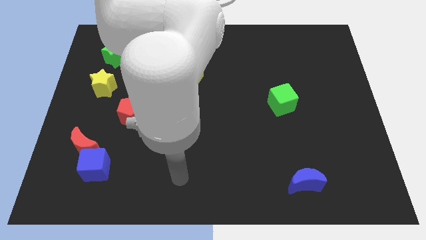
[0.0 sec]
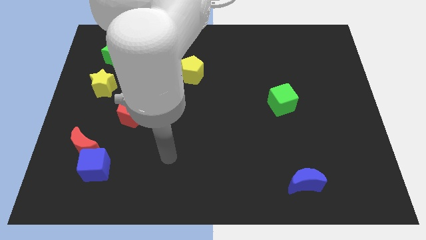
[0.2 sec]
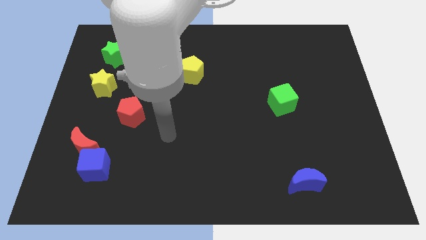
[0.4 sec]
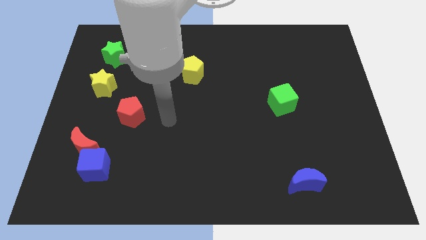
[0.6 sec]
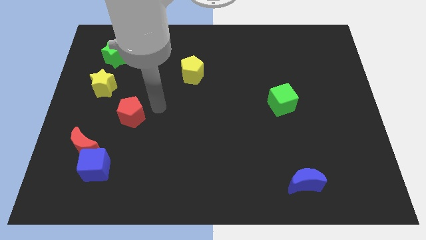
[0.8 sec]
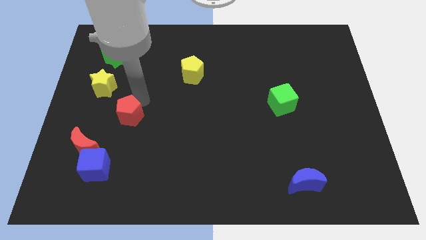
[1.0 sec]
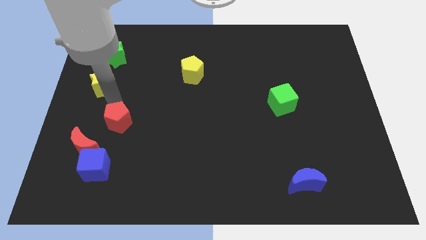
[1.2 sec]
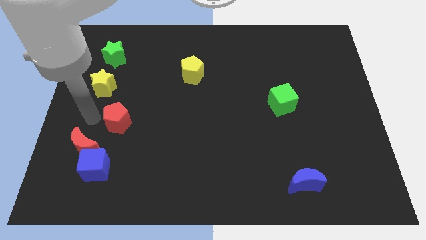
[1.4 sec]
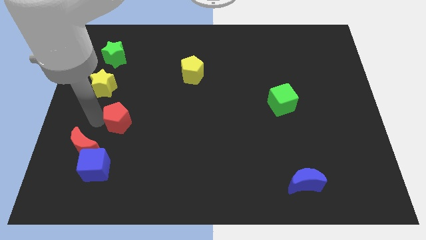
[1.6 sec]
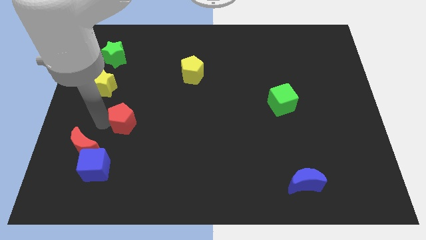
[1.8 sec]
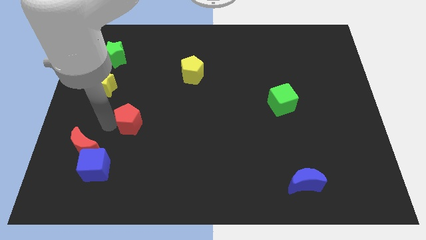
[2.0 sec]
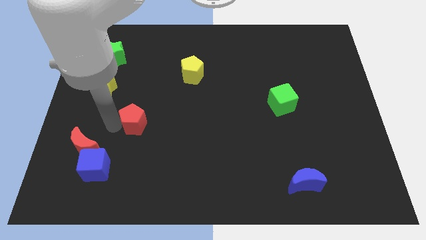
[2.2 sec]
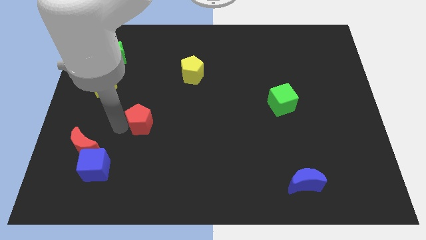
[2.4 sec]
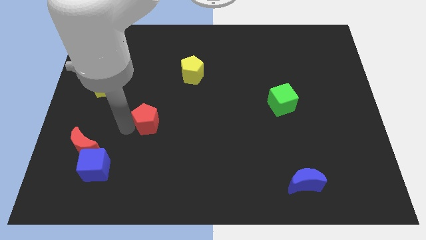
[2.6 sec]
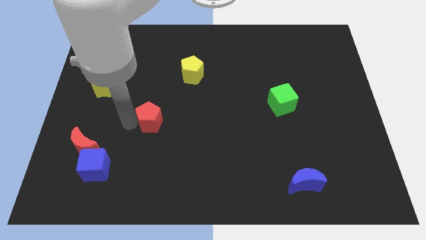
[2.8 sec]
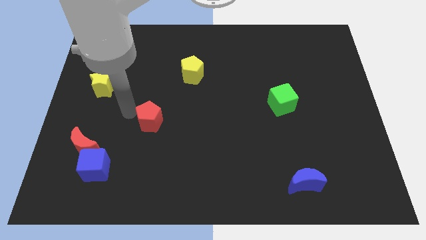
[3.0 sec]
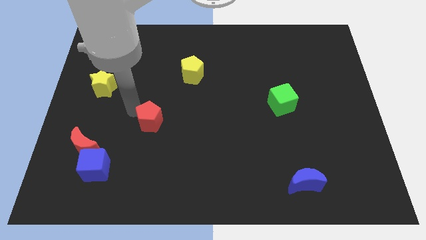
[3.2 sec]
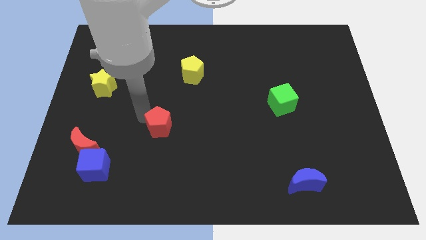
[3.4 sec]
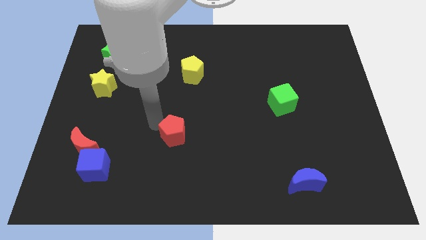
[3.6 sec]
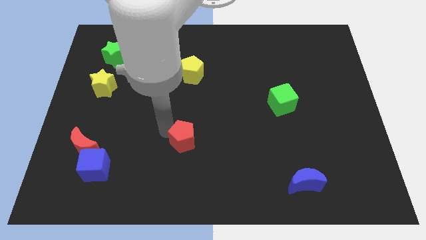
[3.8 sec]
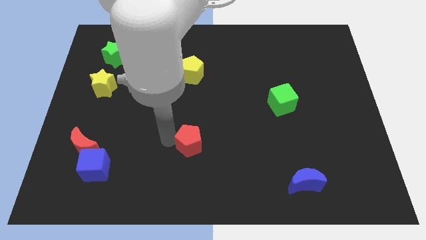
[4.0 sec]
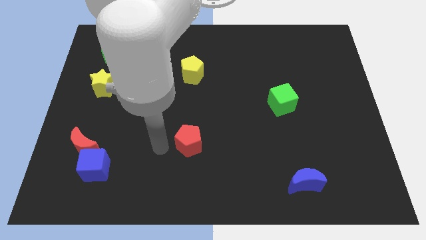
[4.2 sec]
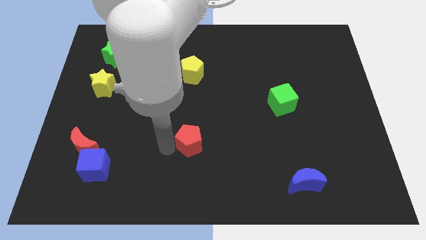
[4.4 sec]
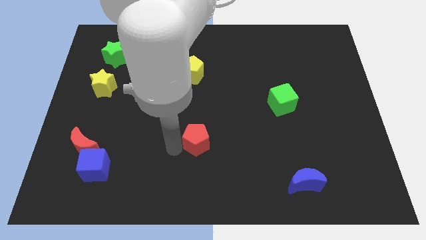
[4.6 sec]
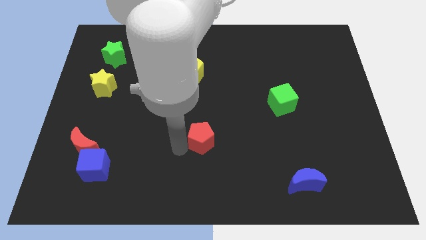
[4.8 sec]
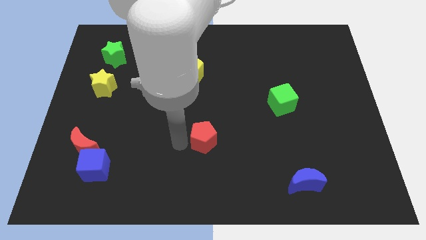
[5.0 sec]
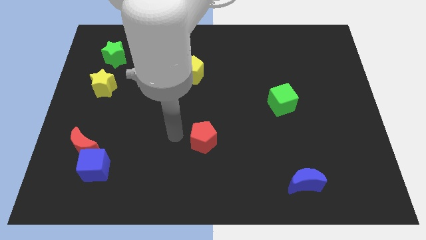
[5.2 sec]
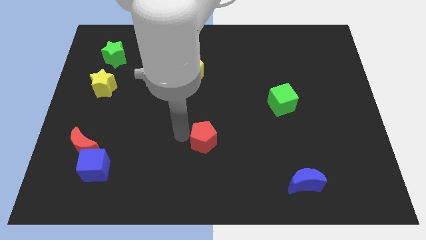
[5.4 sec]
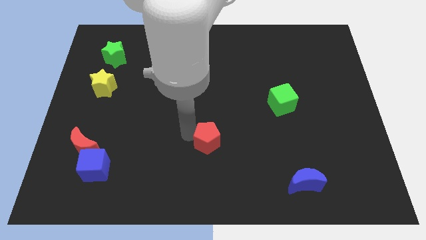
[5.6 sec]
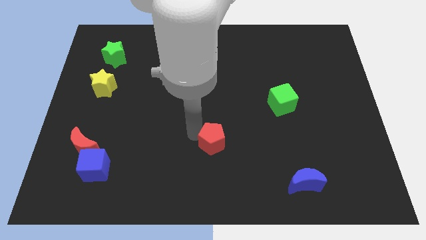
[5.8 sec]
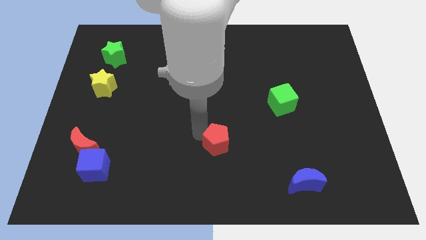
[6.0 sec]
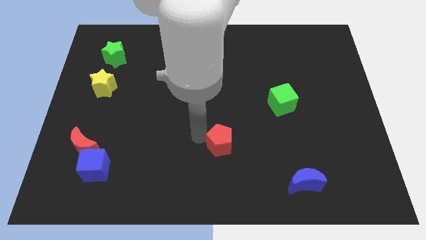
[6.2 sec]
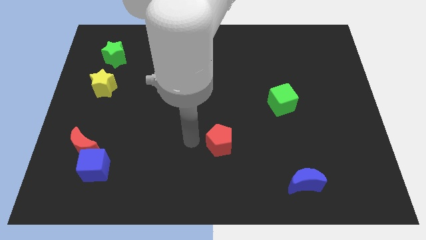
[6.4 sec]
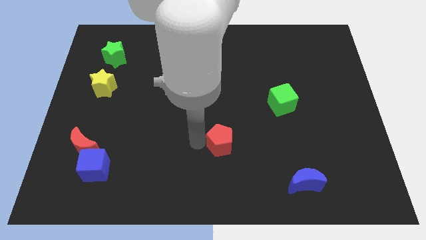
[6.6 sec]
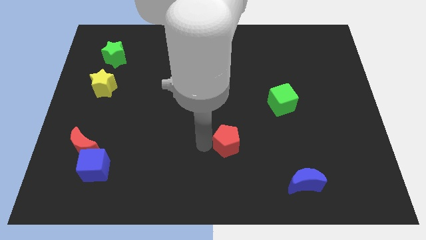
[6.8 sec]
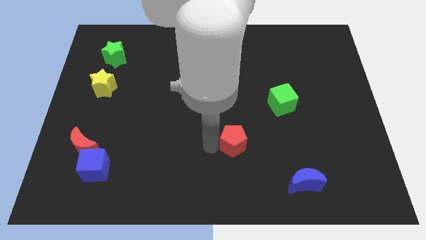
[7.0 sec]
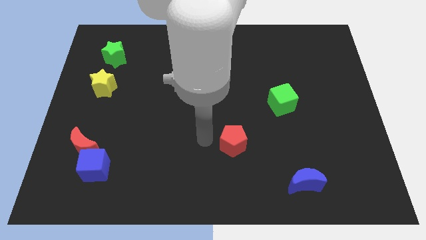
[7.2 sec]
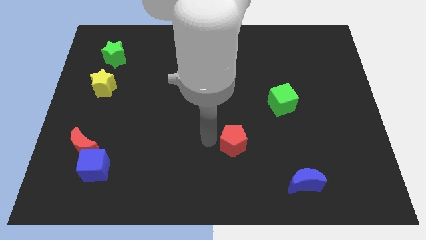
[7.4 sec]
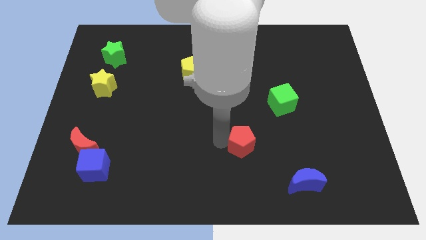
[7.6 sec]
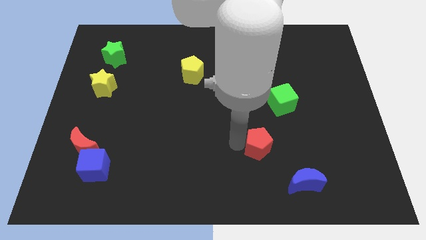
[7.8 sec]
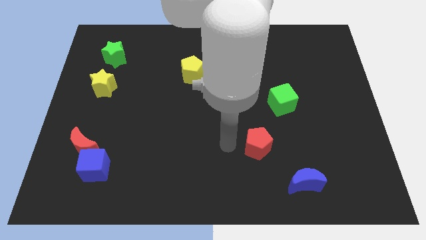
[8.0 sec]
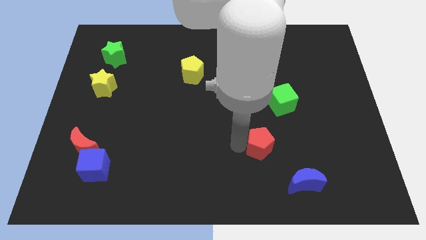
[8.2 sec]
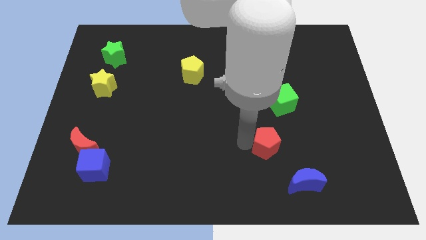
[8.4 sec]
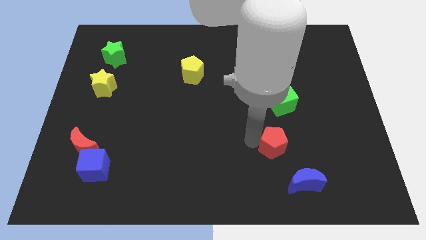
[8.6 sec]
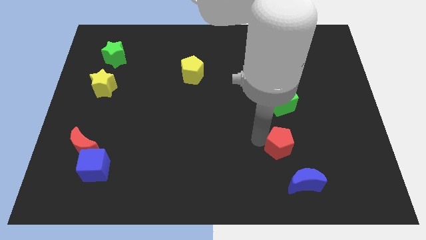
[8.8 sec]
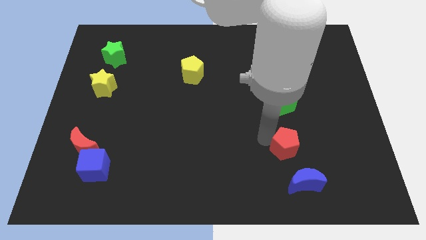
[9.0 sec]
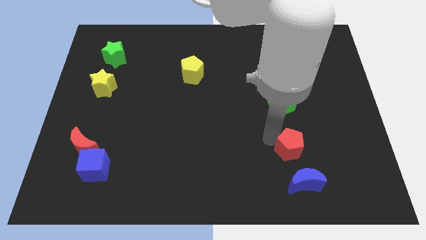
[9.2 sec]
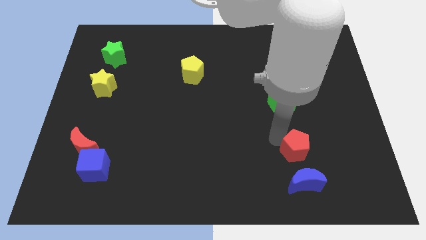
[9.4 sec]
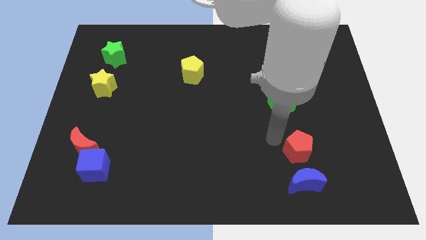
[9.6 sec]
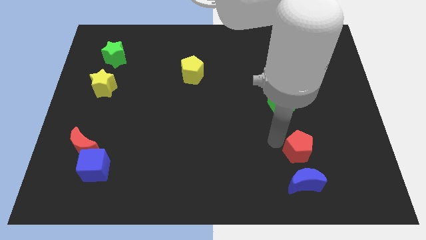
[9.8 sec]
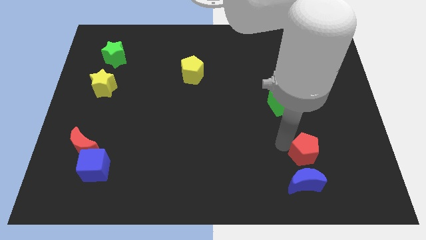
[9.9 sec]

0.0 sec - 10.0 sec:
put the red pentagon to the top right side of the blue moon

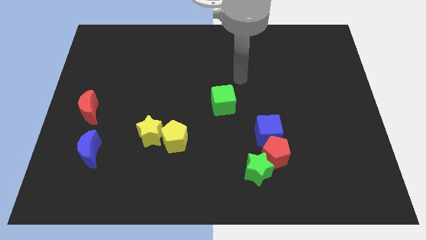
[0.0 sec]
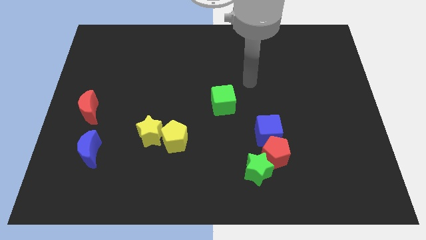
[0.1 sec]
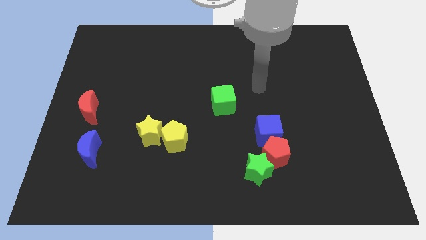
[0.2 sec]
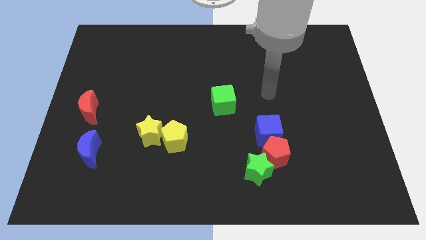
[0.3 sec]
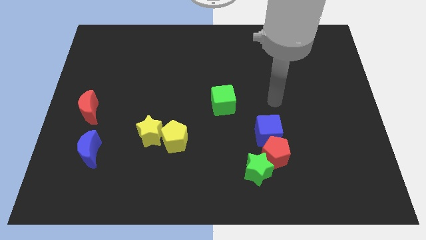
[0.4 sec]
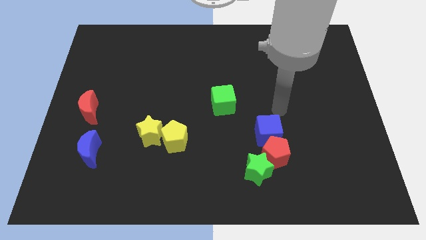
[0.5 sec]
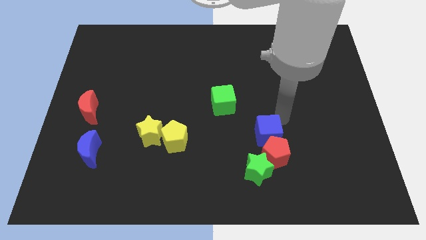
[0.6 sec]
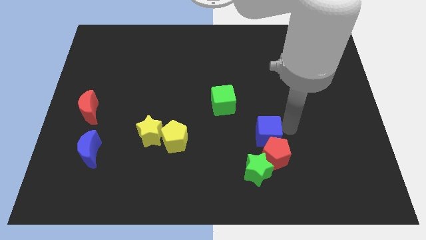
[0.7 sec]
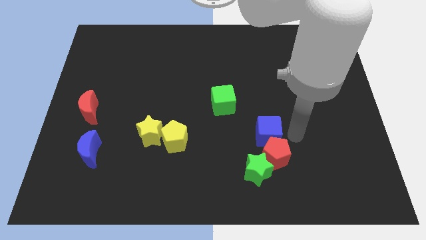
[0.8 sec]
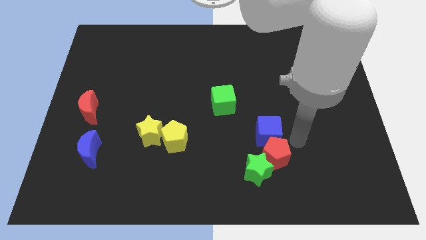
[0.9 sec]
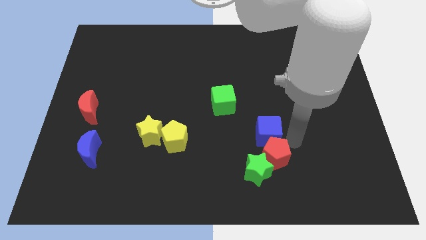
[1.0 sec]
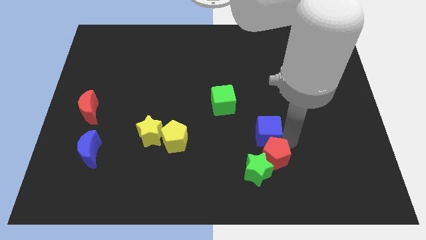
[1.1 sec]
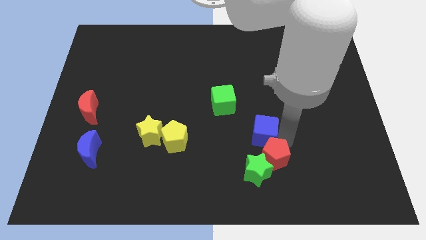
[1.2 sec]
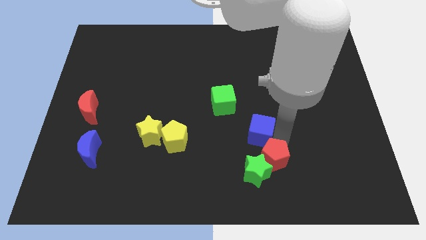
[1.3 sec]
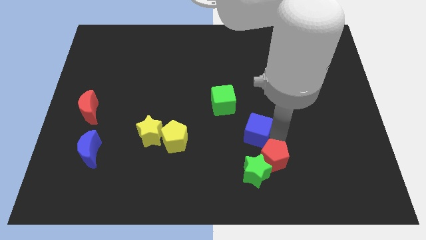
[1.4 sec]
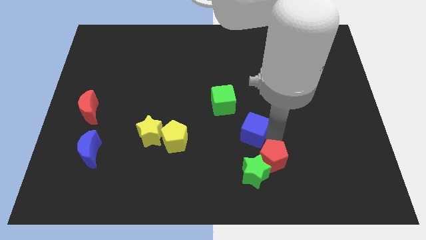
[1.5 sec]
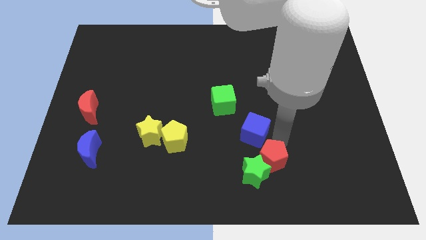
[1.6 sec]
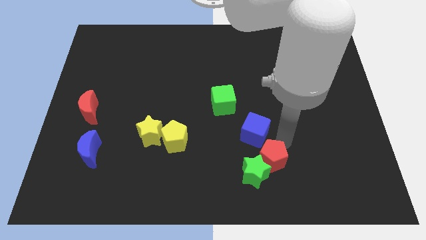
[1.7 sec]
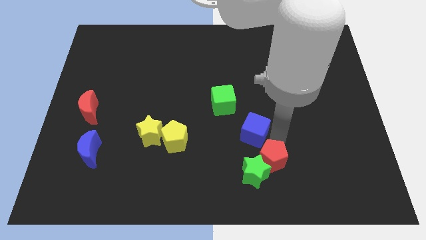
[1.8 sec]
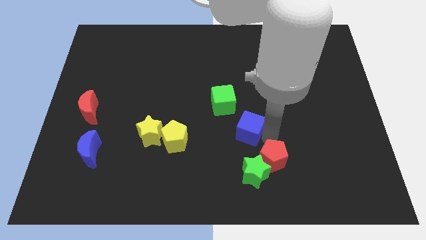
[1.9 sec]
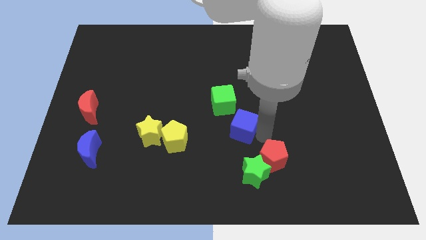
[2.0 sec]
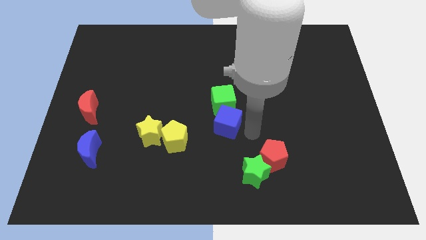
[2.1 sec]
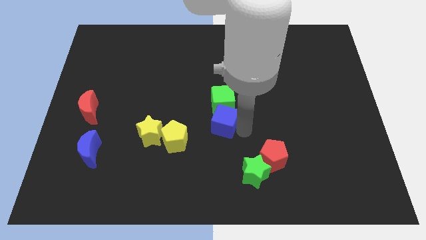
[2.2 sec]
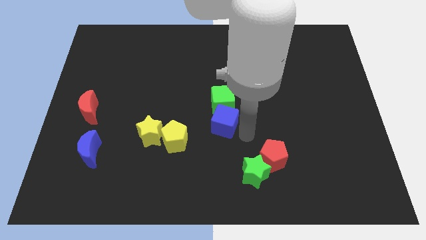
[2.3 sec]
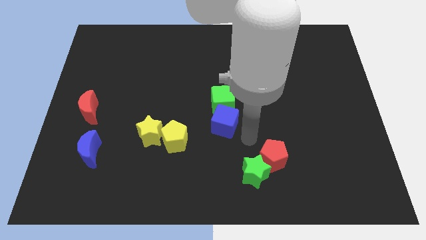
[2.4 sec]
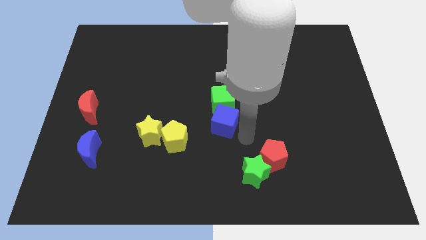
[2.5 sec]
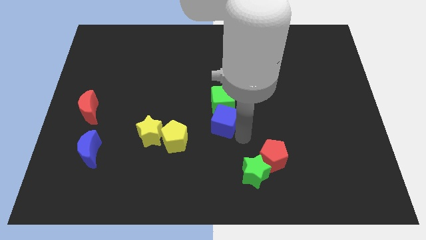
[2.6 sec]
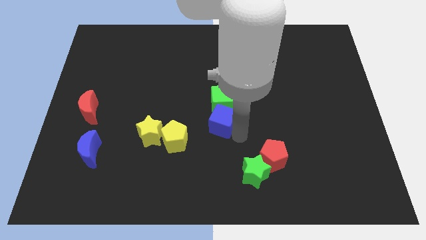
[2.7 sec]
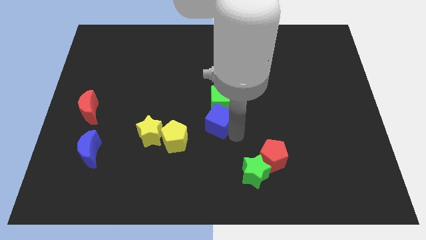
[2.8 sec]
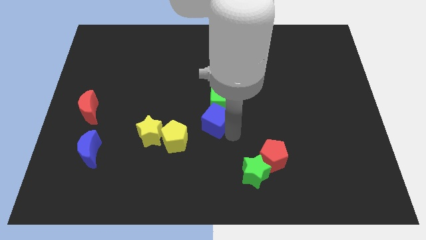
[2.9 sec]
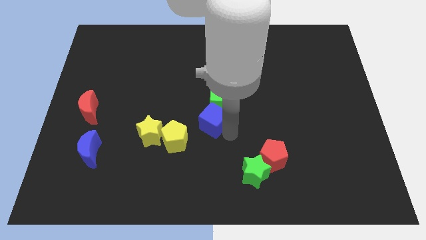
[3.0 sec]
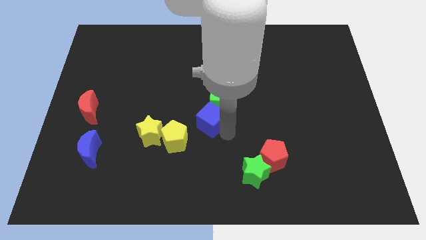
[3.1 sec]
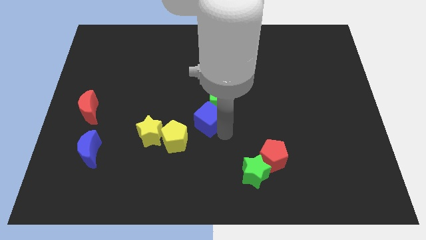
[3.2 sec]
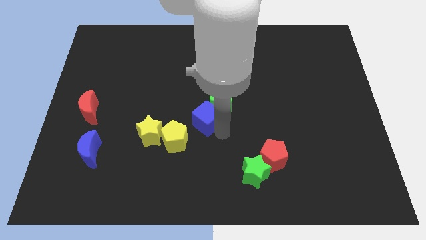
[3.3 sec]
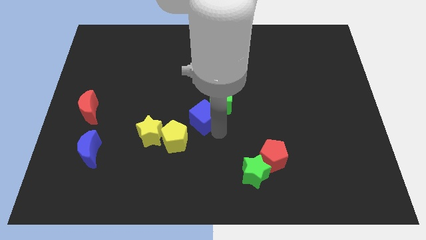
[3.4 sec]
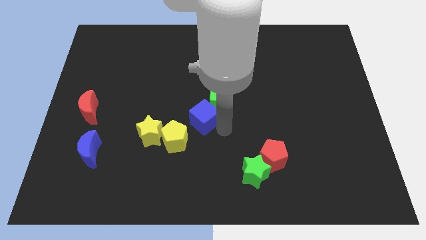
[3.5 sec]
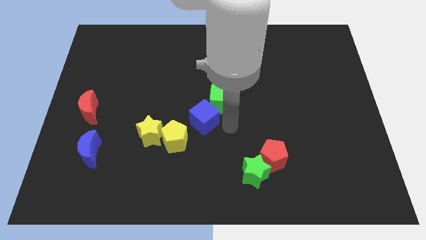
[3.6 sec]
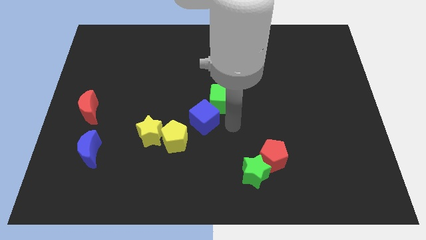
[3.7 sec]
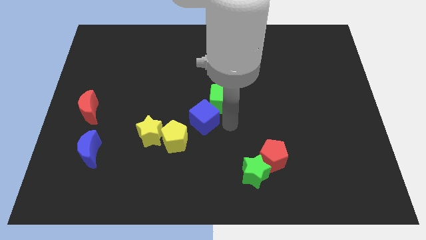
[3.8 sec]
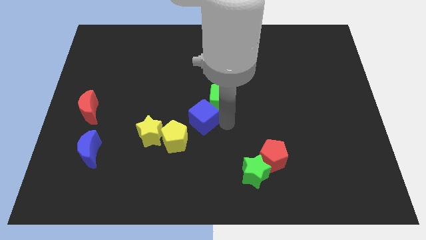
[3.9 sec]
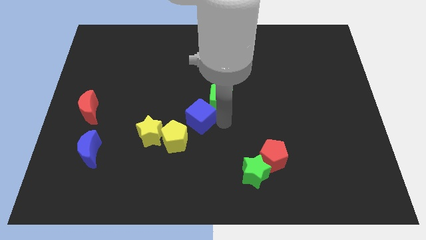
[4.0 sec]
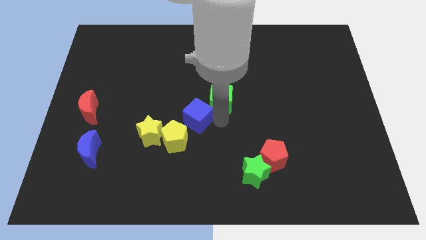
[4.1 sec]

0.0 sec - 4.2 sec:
move the blue cube to the top right side of the yellow star
